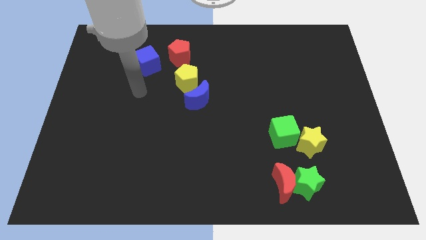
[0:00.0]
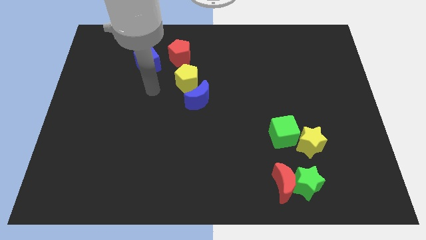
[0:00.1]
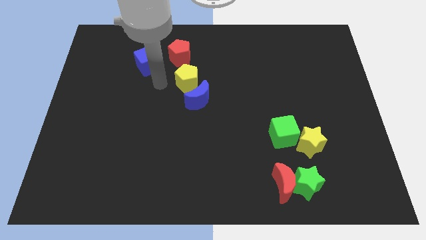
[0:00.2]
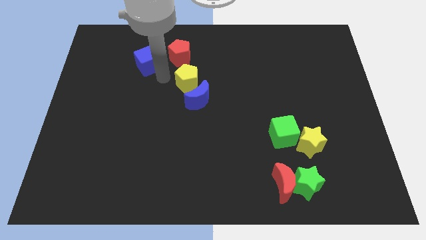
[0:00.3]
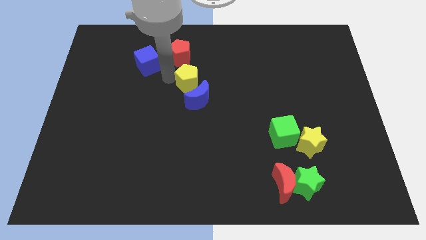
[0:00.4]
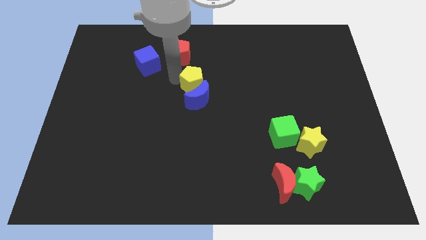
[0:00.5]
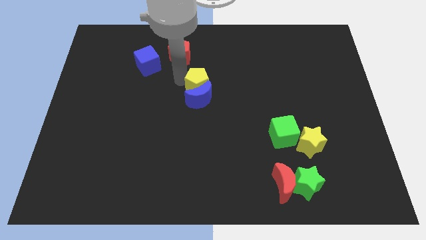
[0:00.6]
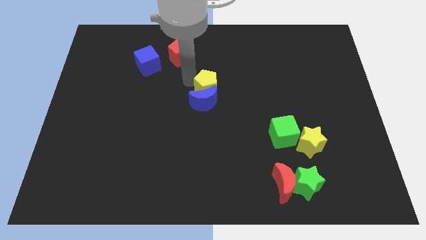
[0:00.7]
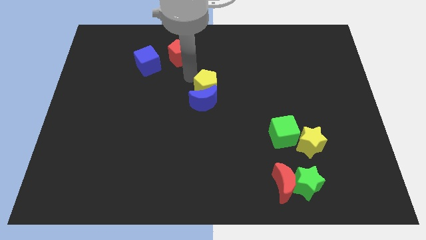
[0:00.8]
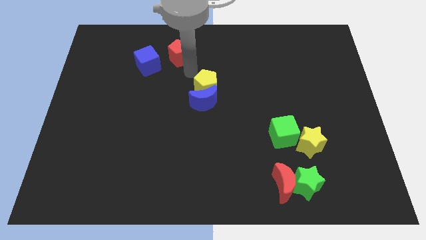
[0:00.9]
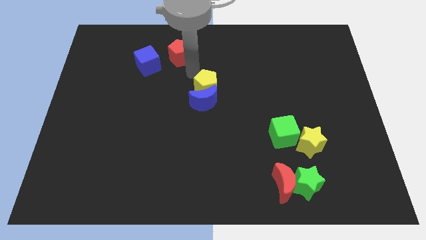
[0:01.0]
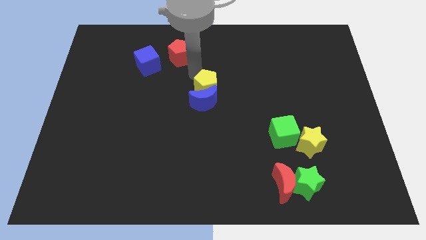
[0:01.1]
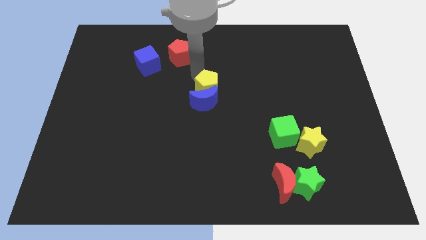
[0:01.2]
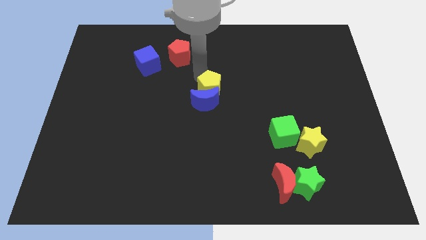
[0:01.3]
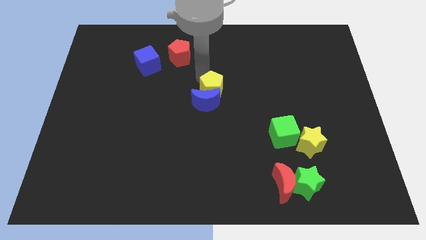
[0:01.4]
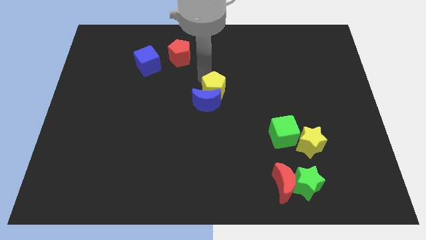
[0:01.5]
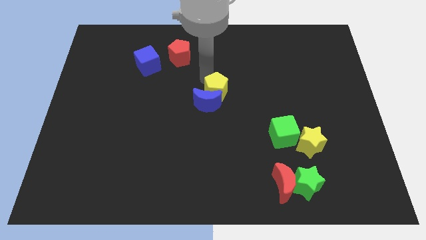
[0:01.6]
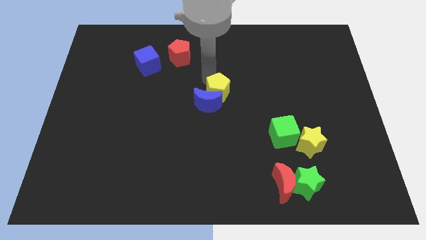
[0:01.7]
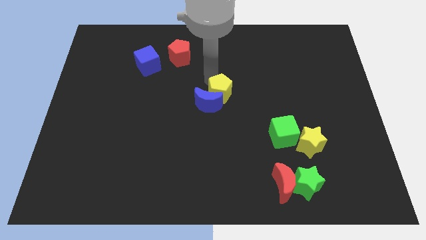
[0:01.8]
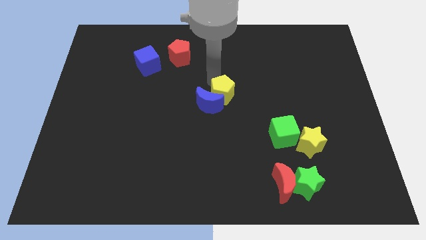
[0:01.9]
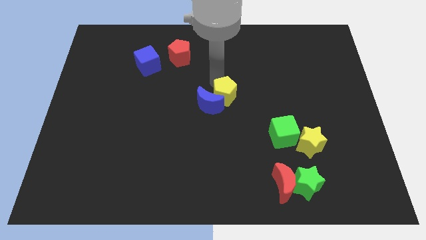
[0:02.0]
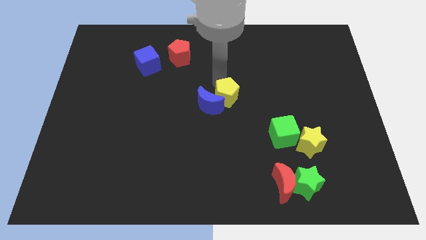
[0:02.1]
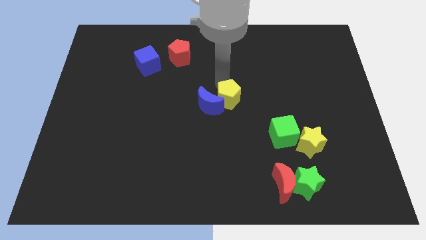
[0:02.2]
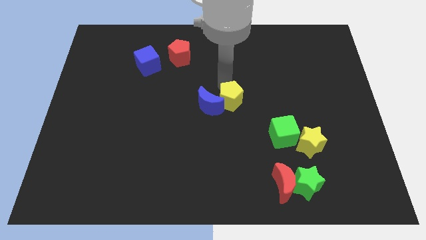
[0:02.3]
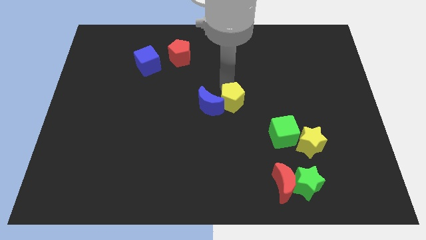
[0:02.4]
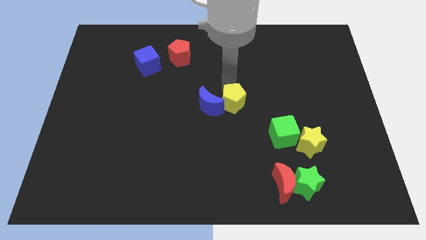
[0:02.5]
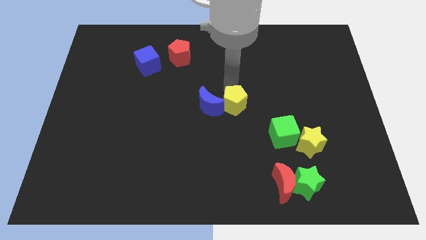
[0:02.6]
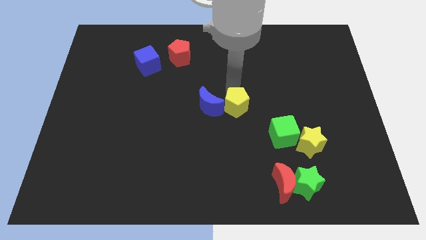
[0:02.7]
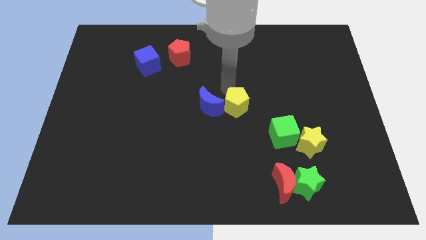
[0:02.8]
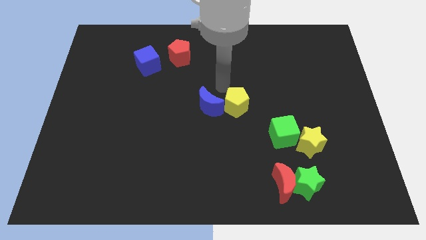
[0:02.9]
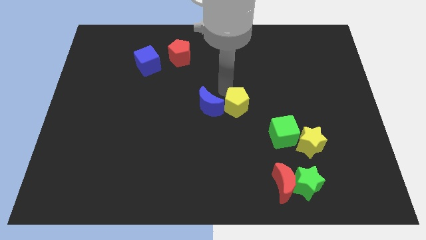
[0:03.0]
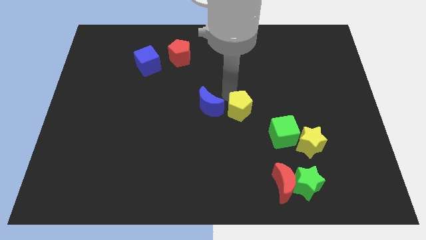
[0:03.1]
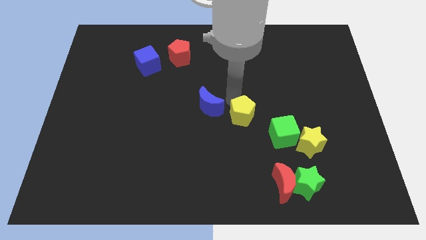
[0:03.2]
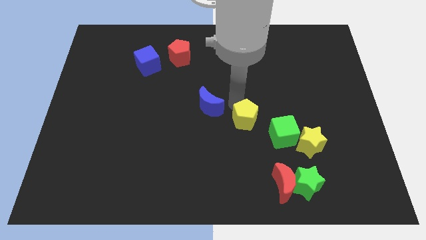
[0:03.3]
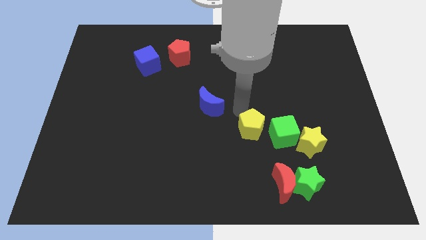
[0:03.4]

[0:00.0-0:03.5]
move the yellow pentagon downwards and to the right

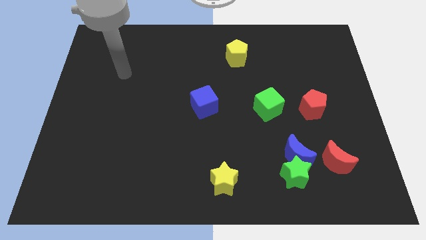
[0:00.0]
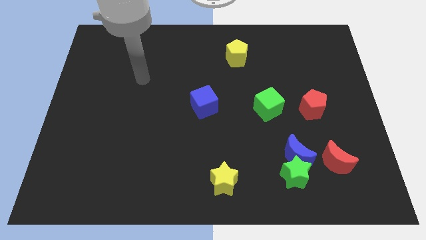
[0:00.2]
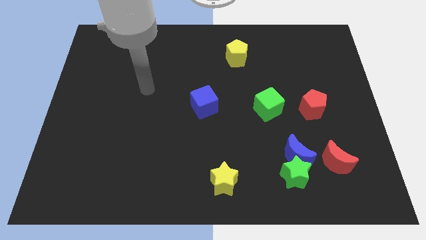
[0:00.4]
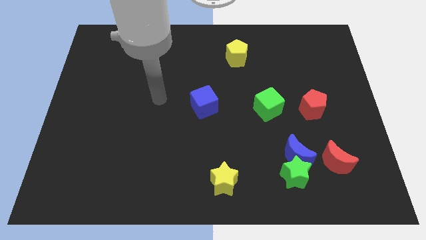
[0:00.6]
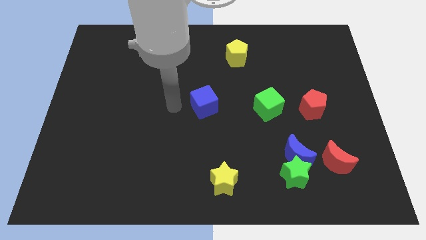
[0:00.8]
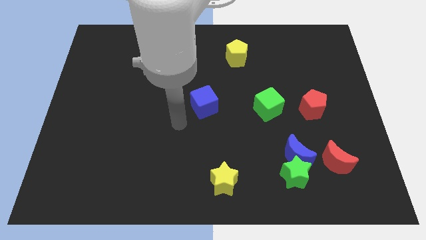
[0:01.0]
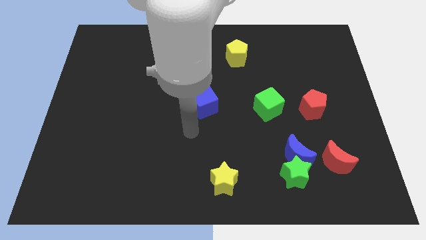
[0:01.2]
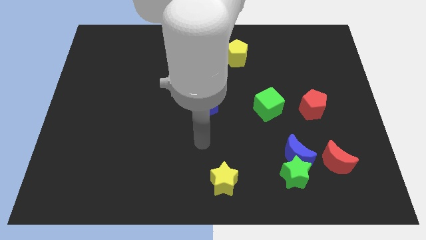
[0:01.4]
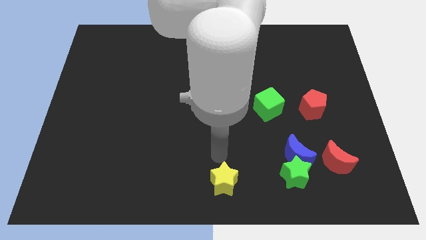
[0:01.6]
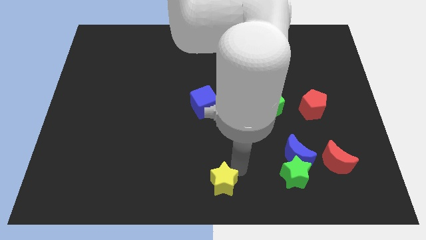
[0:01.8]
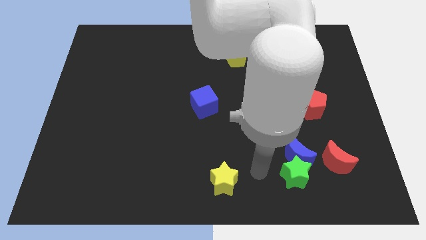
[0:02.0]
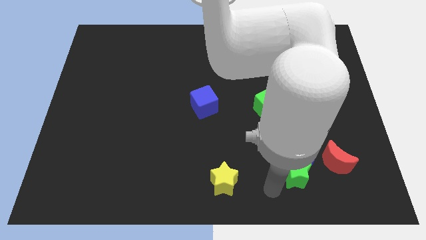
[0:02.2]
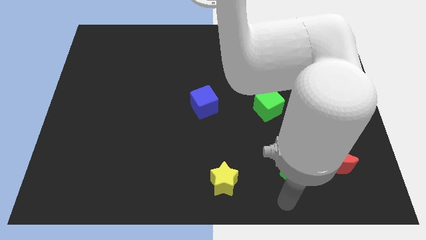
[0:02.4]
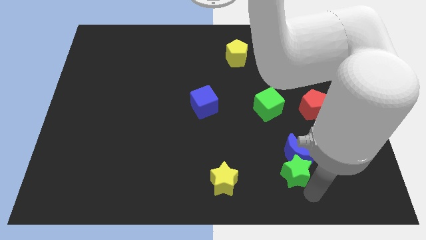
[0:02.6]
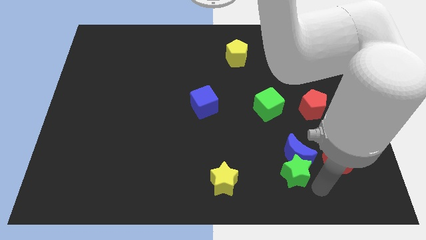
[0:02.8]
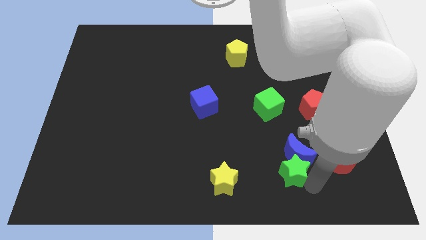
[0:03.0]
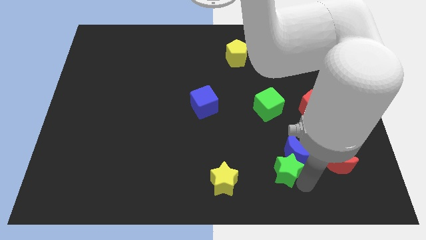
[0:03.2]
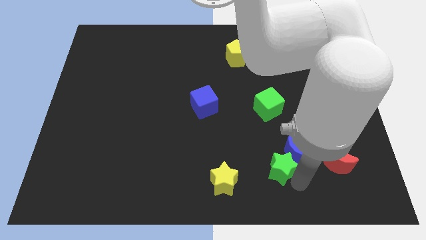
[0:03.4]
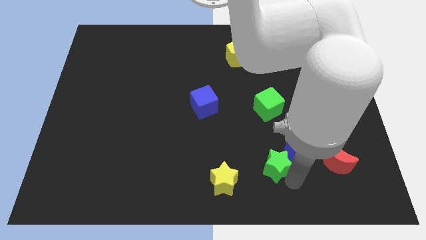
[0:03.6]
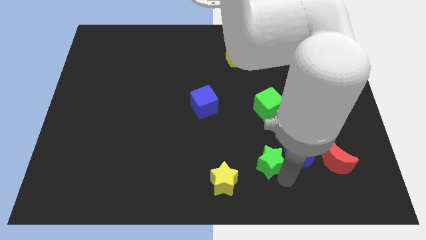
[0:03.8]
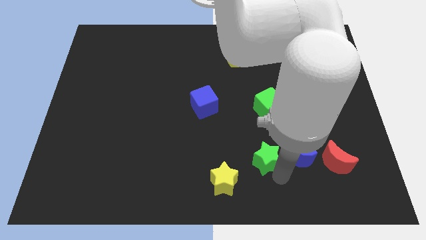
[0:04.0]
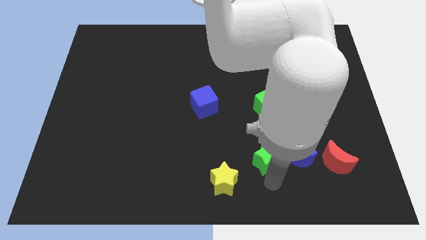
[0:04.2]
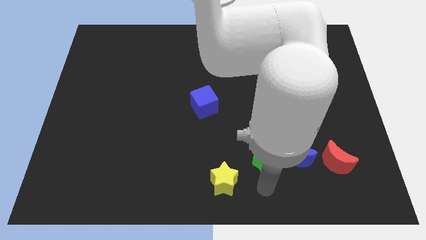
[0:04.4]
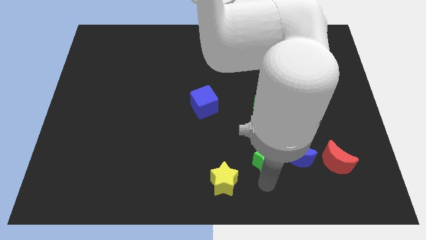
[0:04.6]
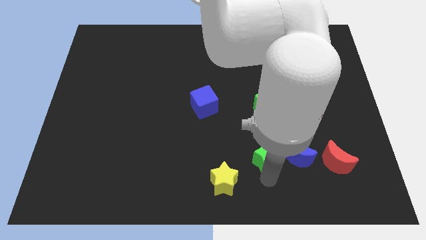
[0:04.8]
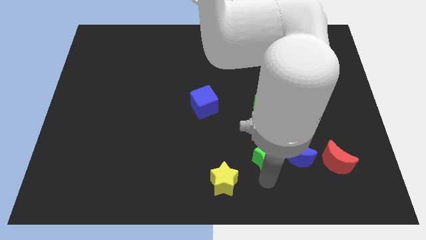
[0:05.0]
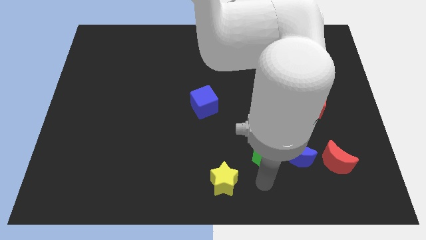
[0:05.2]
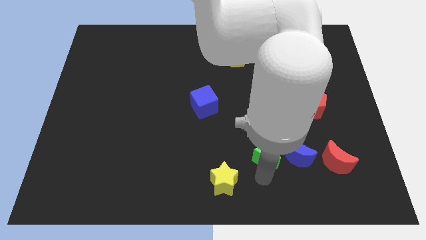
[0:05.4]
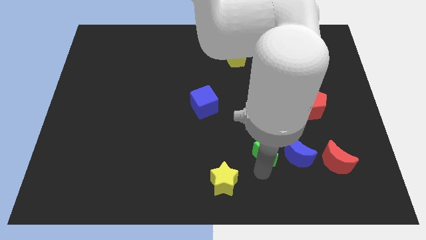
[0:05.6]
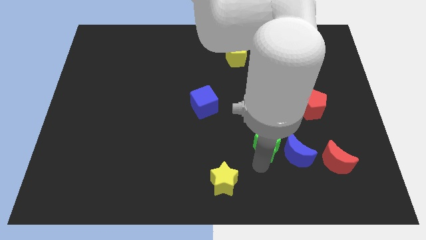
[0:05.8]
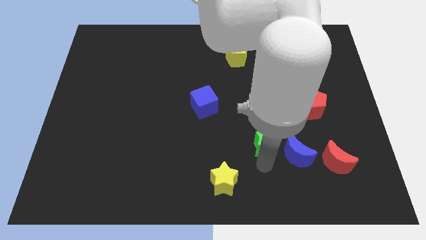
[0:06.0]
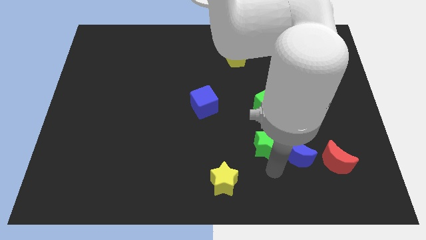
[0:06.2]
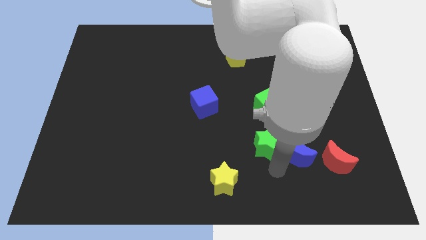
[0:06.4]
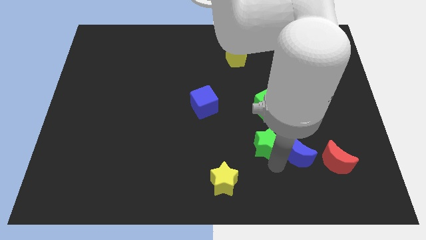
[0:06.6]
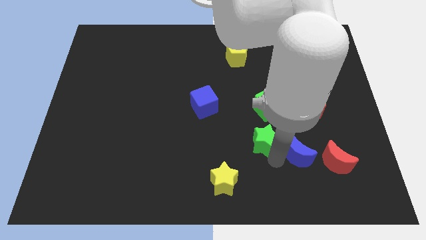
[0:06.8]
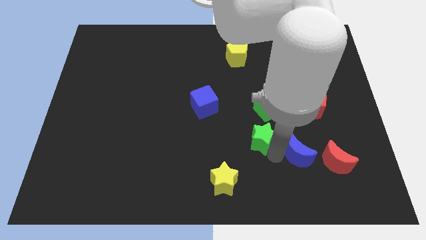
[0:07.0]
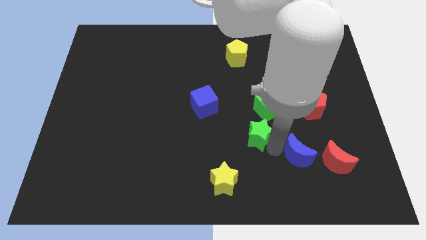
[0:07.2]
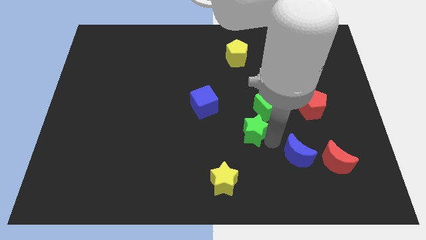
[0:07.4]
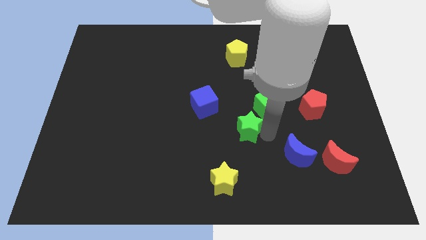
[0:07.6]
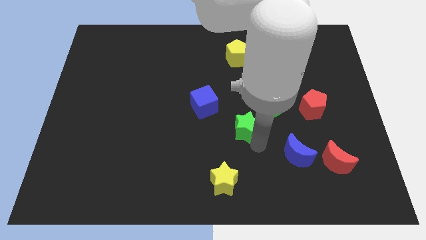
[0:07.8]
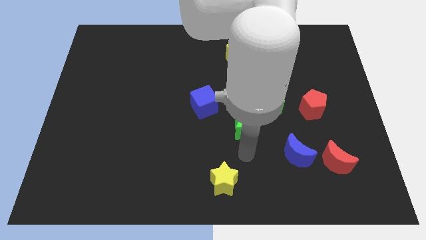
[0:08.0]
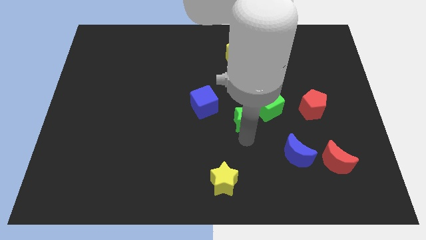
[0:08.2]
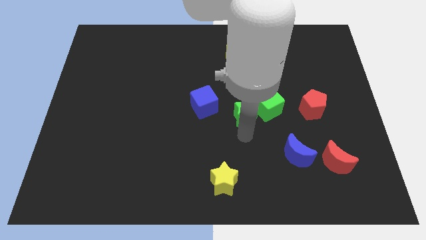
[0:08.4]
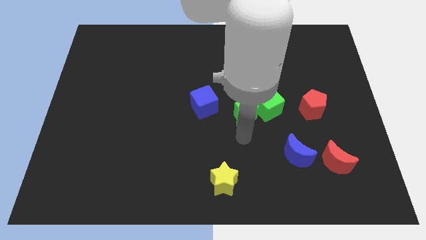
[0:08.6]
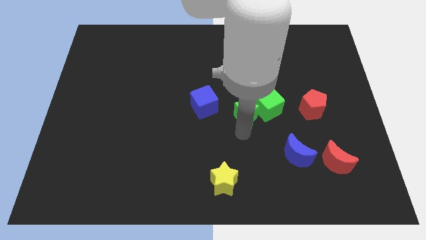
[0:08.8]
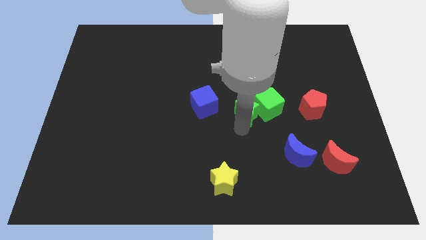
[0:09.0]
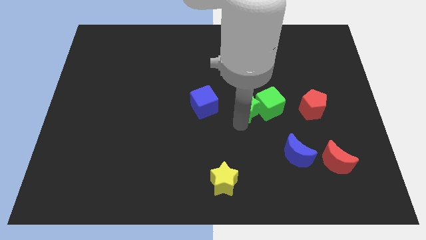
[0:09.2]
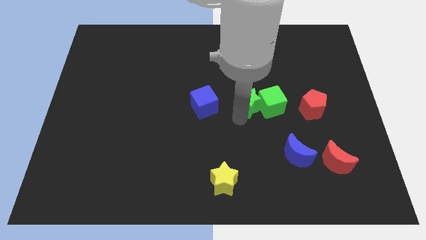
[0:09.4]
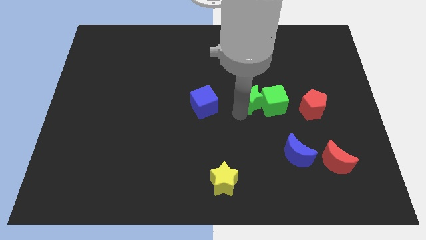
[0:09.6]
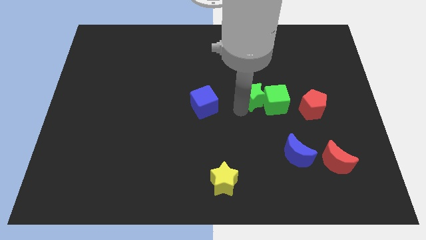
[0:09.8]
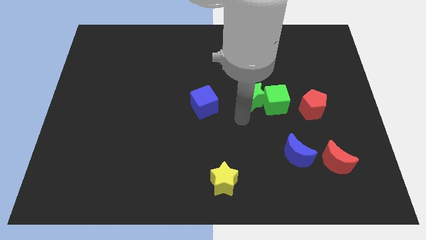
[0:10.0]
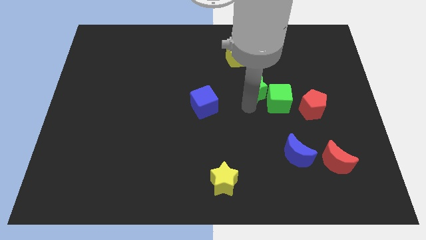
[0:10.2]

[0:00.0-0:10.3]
push the green star up
